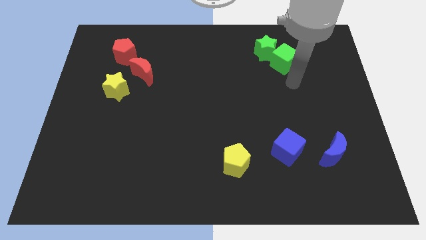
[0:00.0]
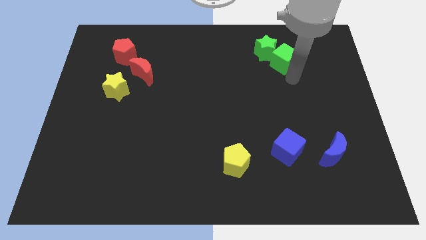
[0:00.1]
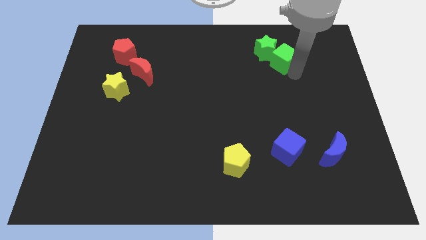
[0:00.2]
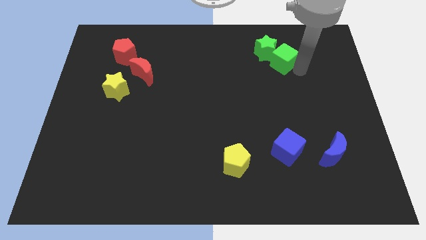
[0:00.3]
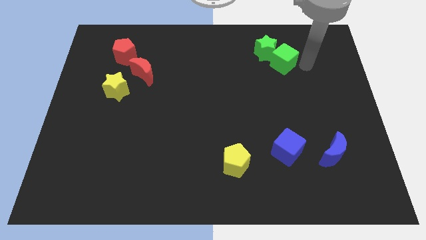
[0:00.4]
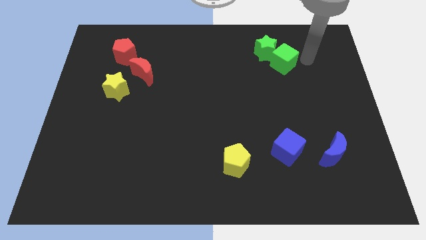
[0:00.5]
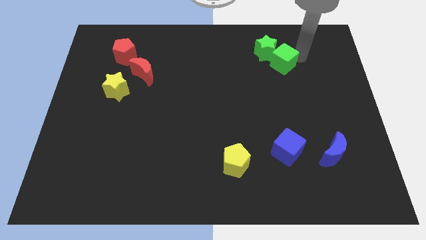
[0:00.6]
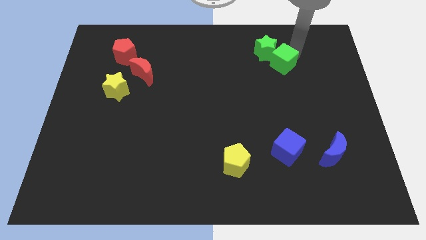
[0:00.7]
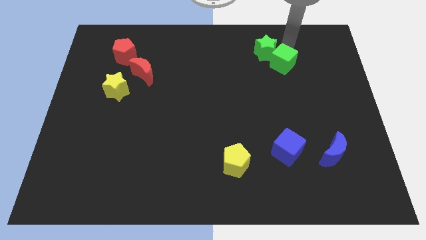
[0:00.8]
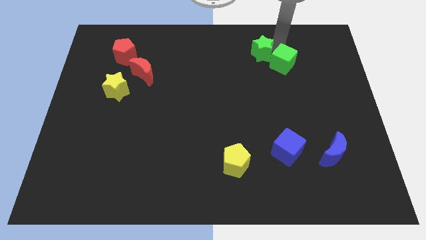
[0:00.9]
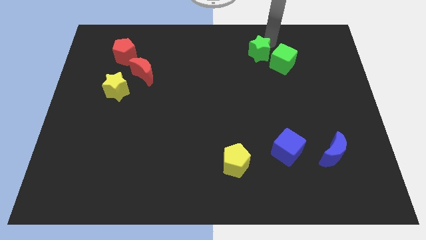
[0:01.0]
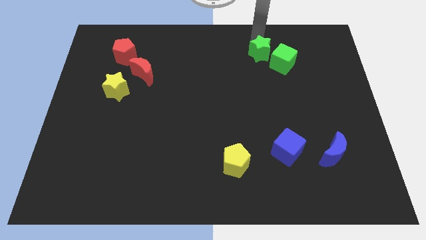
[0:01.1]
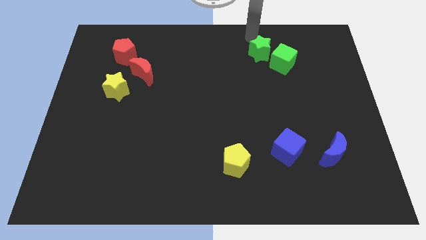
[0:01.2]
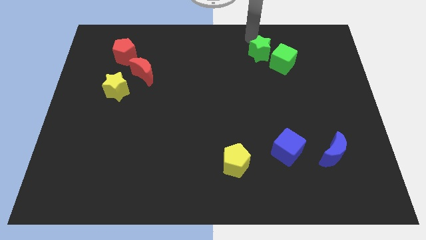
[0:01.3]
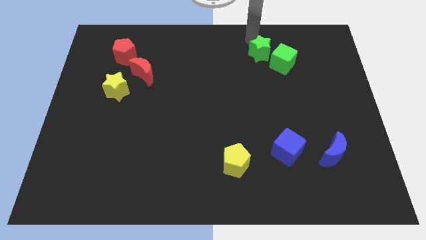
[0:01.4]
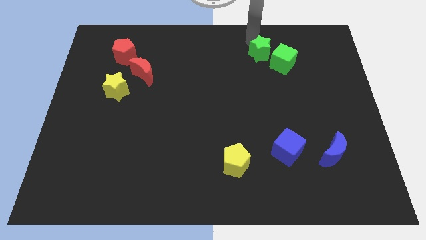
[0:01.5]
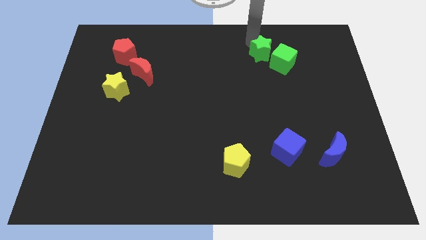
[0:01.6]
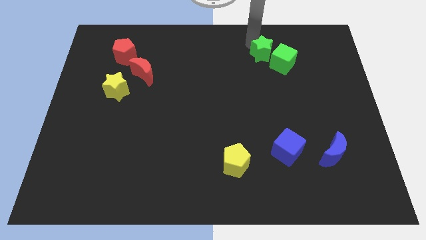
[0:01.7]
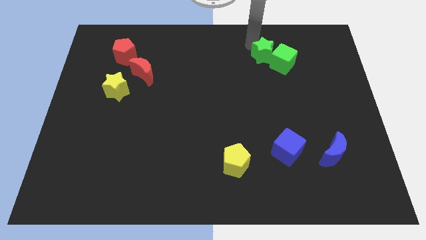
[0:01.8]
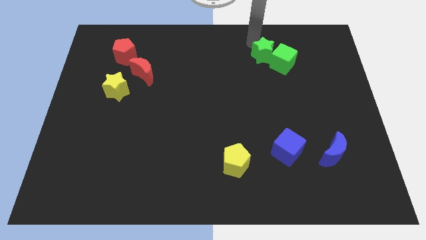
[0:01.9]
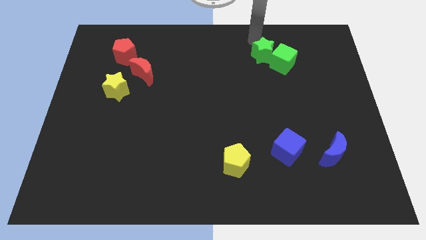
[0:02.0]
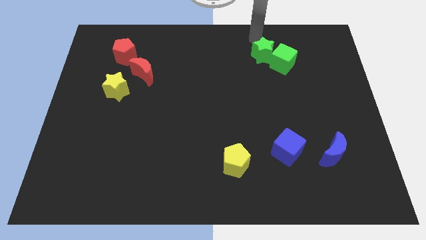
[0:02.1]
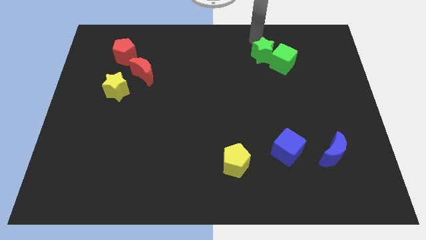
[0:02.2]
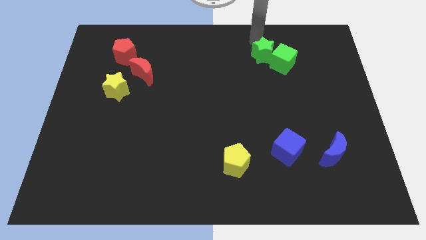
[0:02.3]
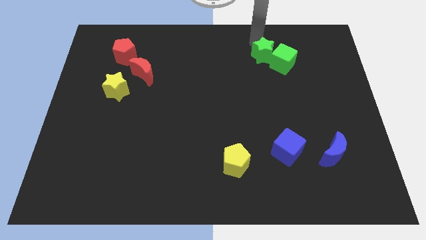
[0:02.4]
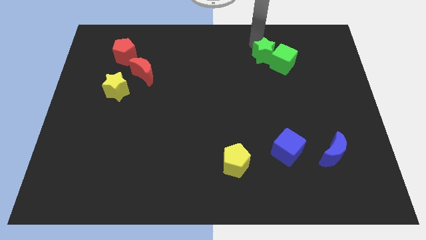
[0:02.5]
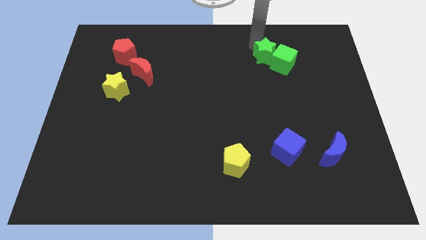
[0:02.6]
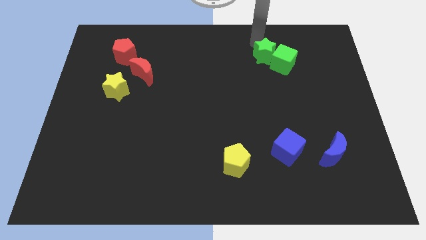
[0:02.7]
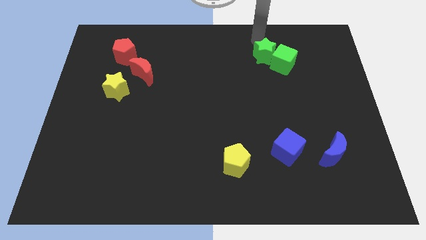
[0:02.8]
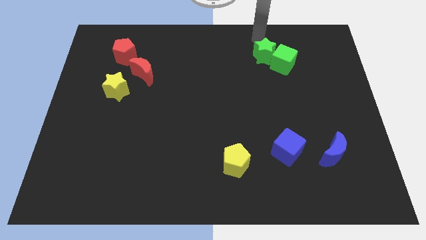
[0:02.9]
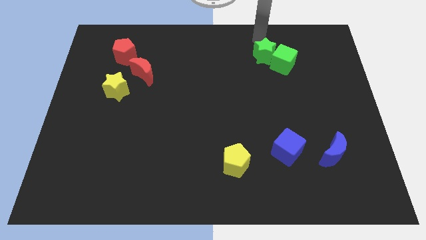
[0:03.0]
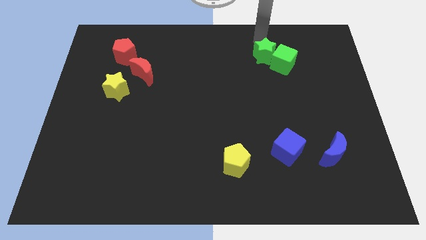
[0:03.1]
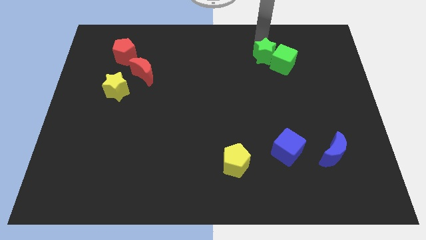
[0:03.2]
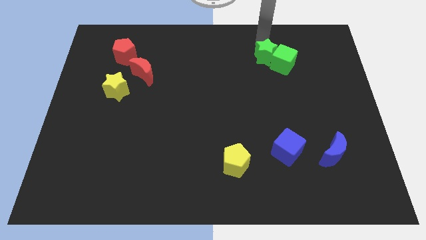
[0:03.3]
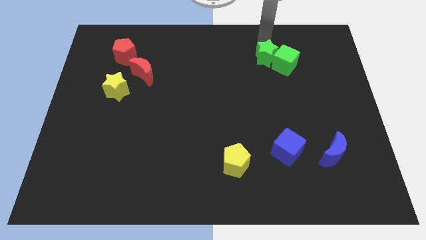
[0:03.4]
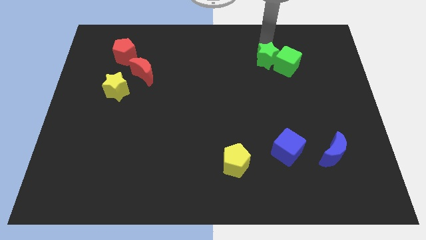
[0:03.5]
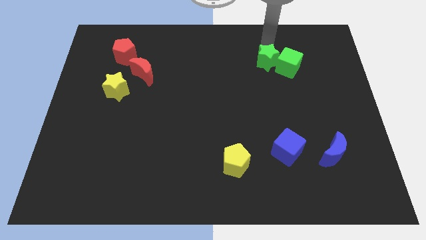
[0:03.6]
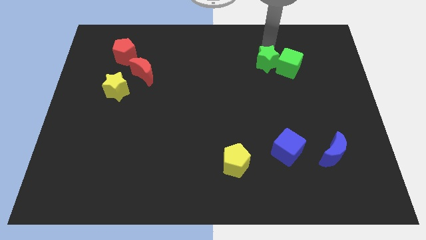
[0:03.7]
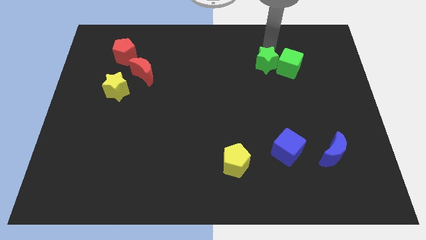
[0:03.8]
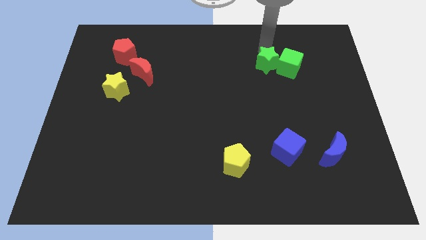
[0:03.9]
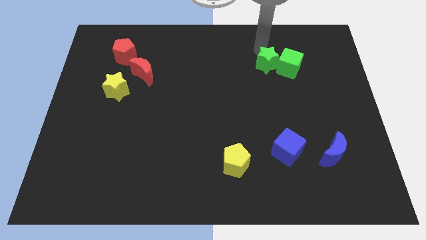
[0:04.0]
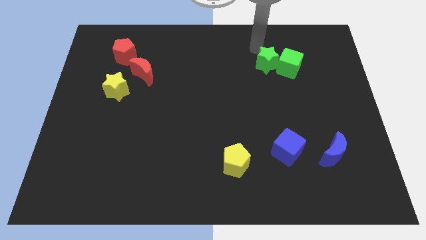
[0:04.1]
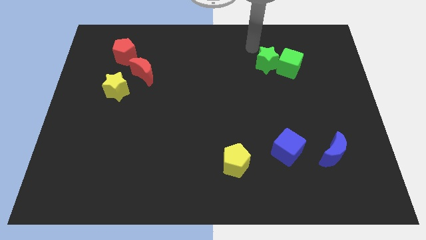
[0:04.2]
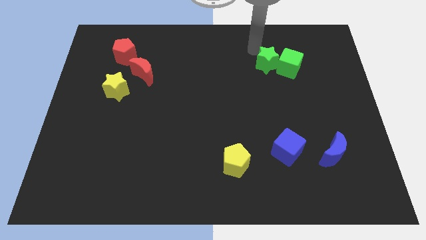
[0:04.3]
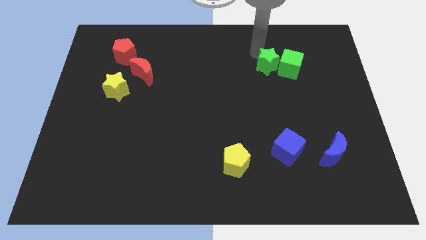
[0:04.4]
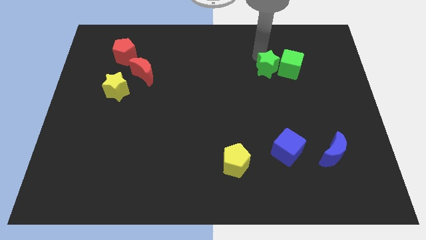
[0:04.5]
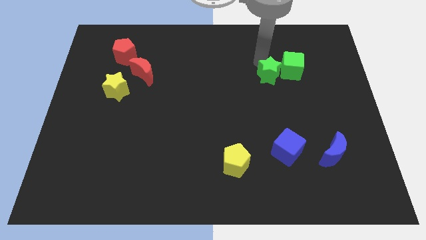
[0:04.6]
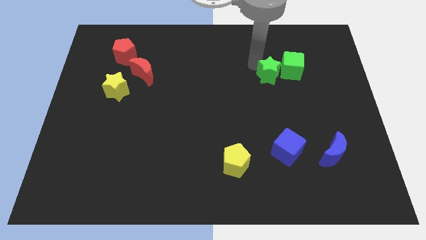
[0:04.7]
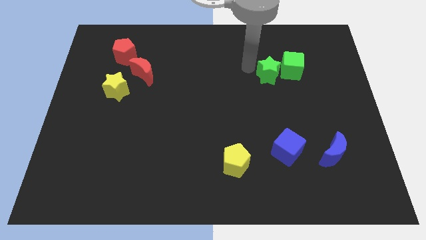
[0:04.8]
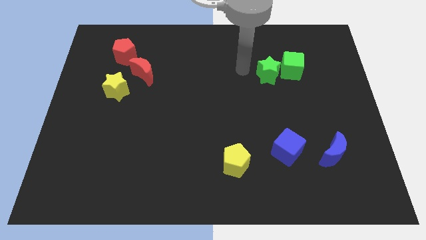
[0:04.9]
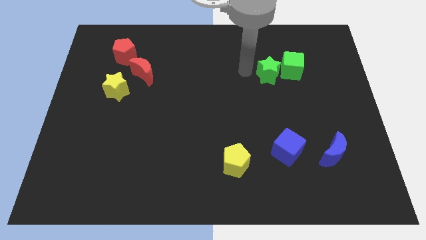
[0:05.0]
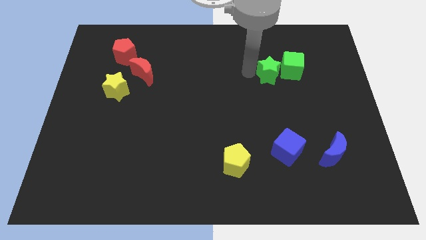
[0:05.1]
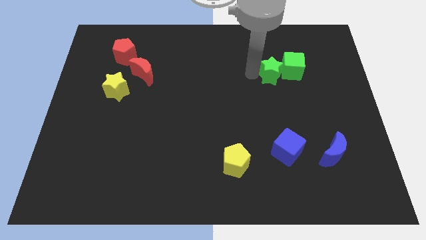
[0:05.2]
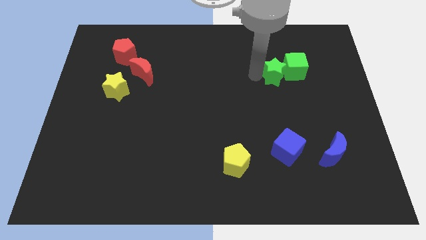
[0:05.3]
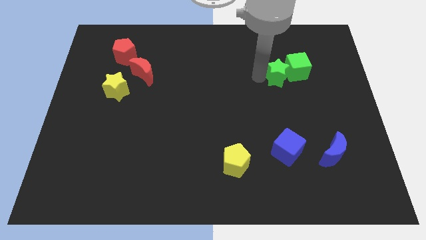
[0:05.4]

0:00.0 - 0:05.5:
slightly slide the green star diagonally downwards and to the right

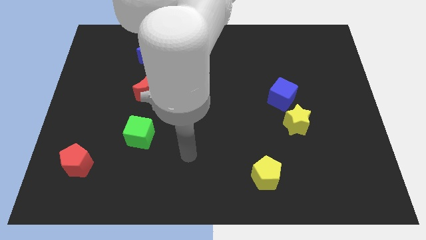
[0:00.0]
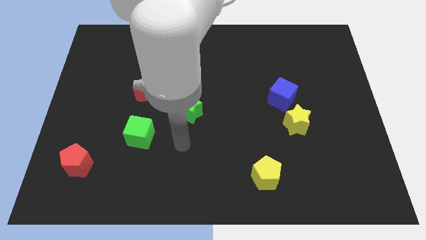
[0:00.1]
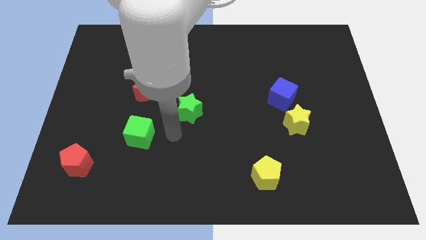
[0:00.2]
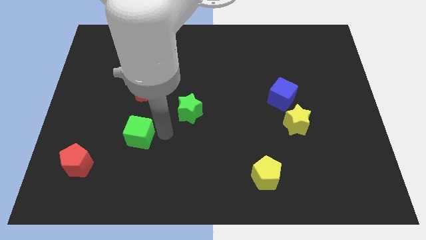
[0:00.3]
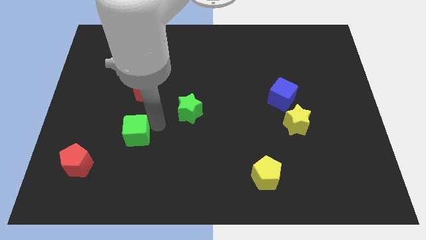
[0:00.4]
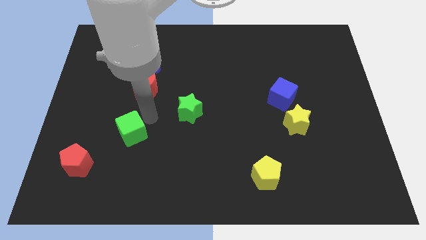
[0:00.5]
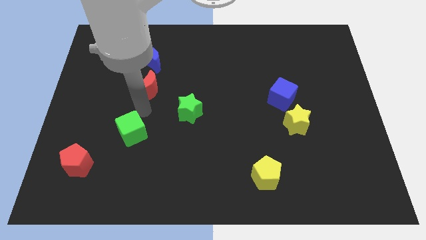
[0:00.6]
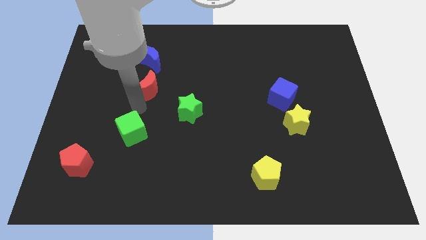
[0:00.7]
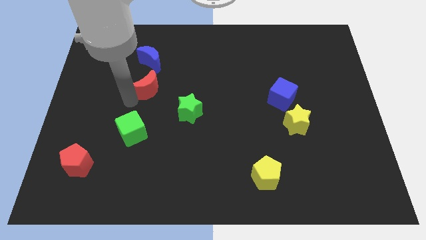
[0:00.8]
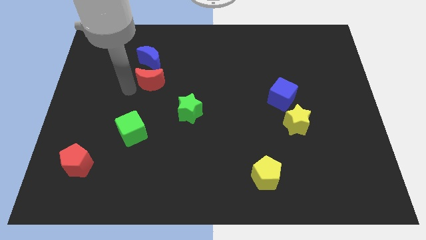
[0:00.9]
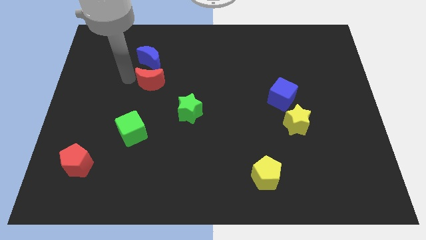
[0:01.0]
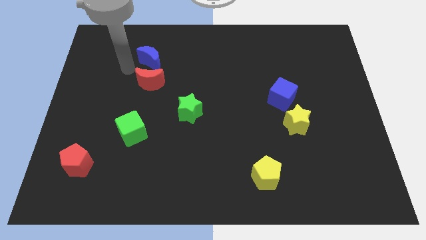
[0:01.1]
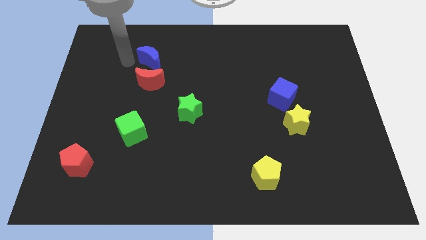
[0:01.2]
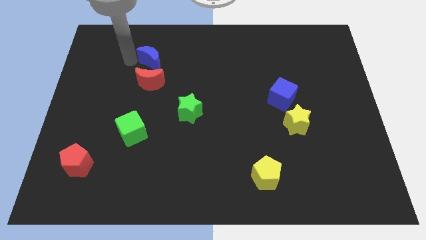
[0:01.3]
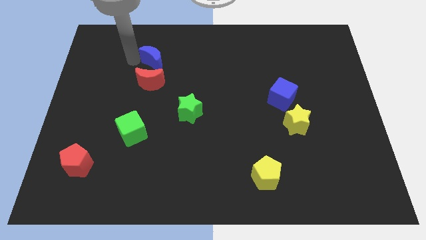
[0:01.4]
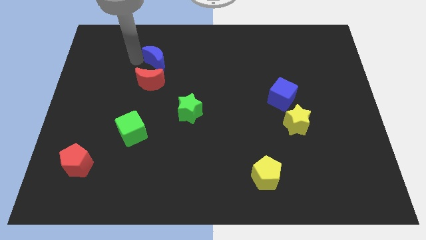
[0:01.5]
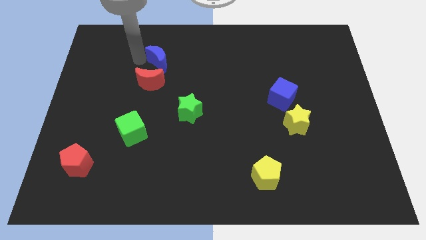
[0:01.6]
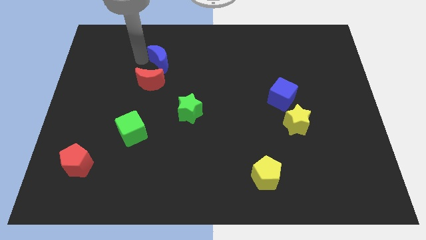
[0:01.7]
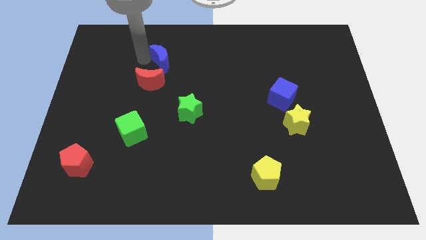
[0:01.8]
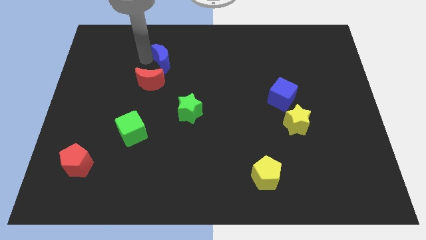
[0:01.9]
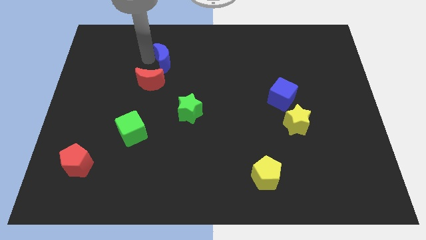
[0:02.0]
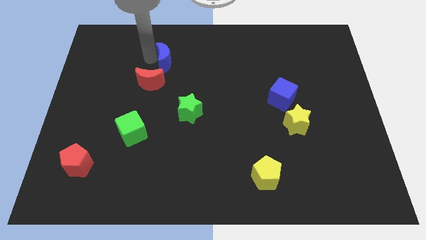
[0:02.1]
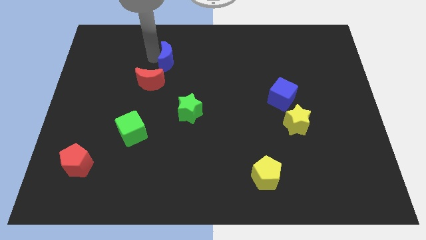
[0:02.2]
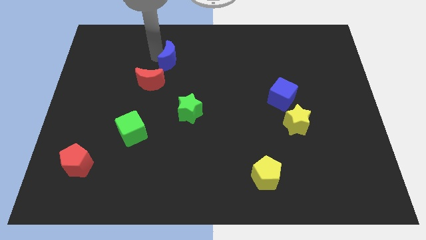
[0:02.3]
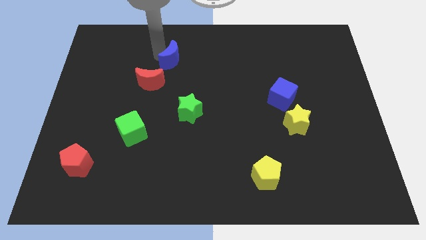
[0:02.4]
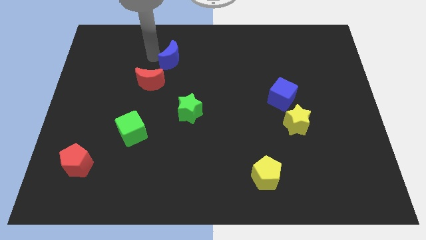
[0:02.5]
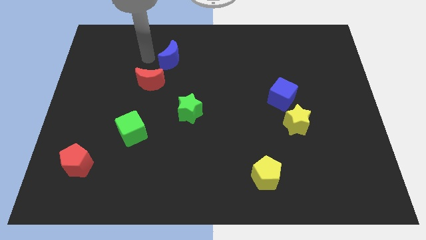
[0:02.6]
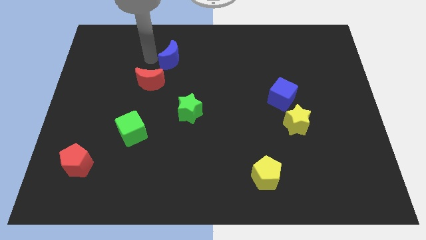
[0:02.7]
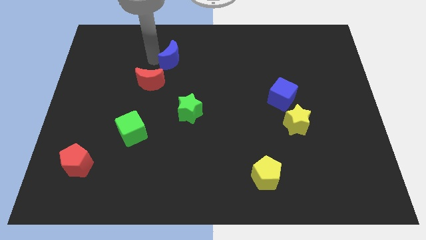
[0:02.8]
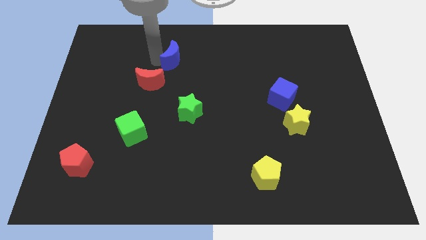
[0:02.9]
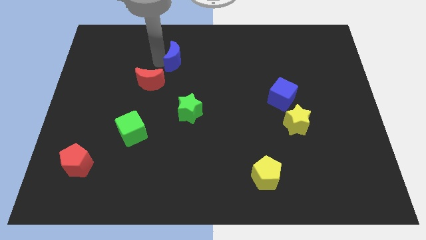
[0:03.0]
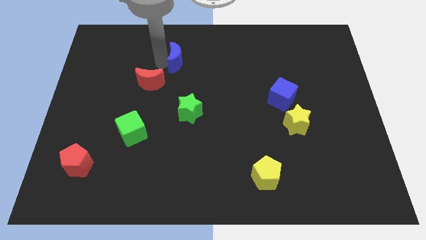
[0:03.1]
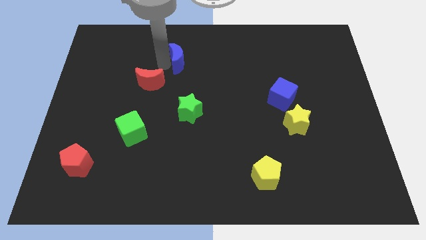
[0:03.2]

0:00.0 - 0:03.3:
slightly push the blue moon right
